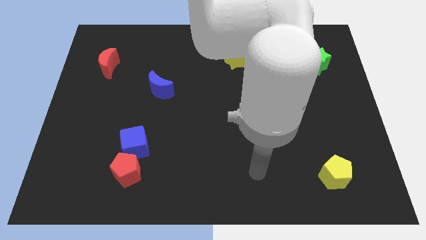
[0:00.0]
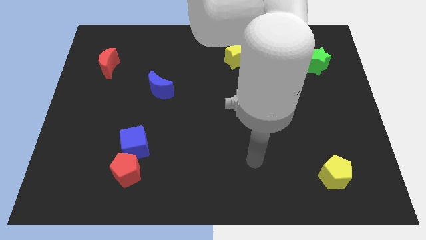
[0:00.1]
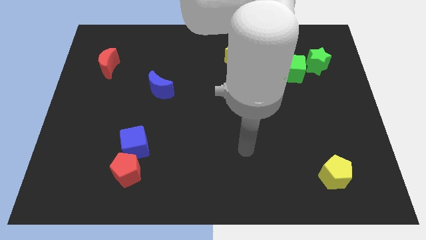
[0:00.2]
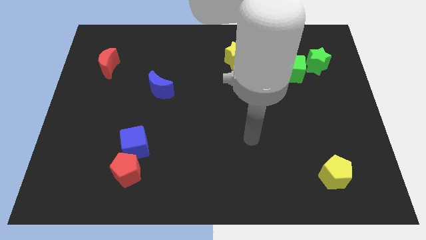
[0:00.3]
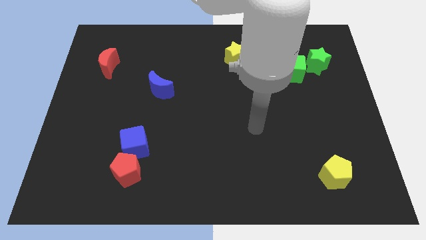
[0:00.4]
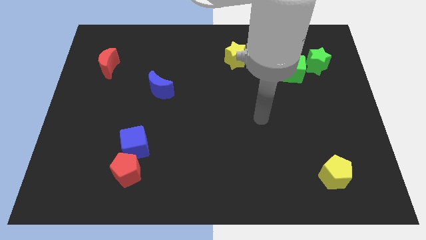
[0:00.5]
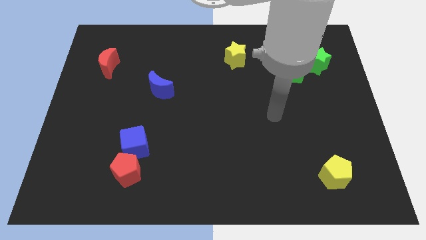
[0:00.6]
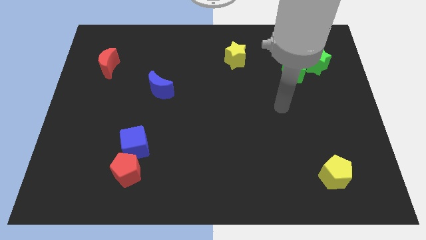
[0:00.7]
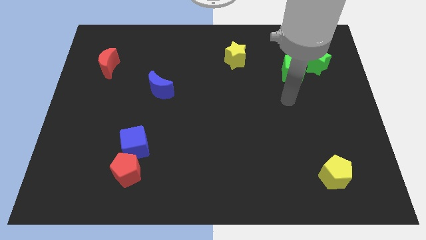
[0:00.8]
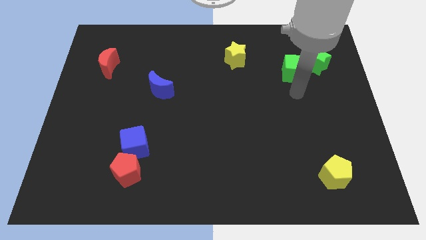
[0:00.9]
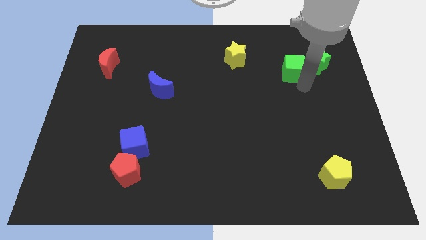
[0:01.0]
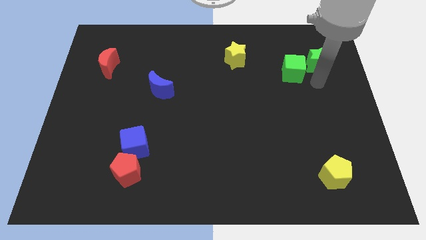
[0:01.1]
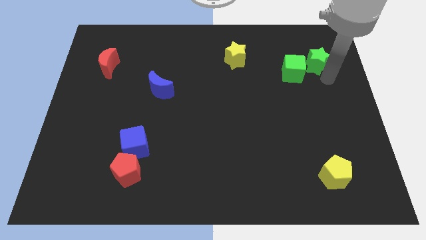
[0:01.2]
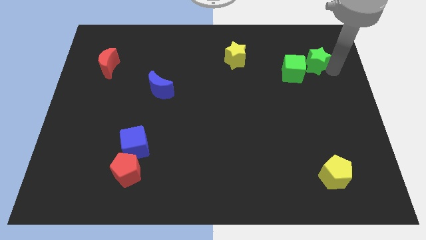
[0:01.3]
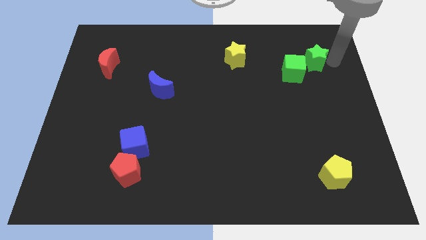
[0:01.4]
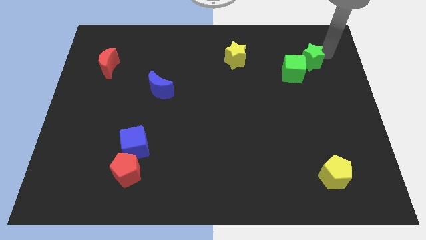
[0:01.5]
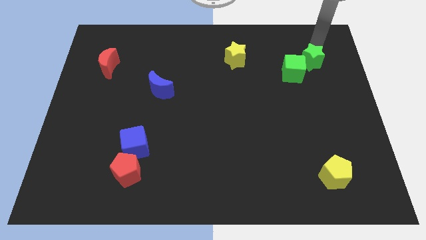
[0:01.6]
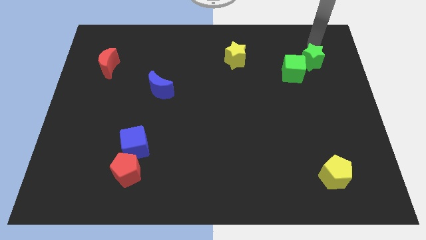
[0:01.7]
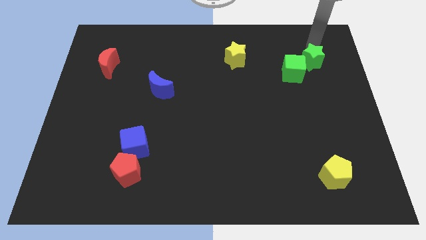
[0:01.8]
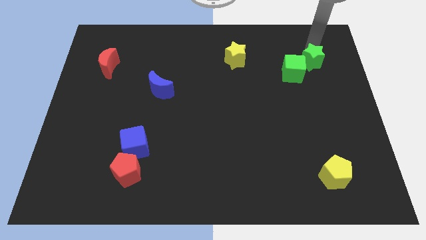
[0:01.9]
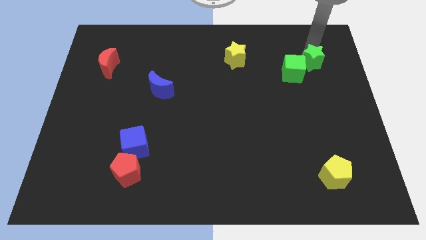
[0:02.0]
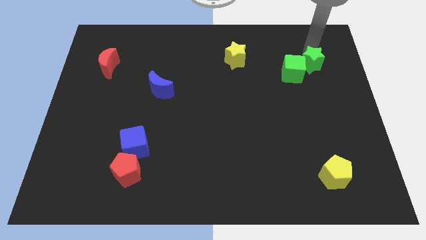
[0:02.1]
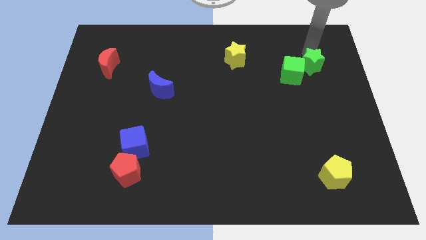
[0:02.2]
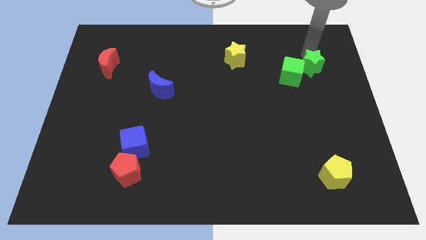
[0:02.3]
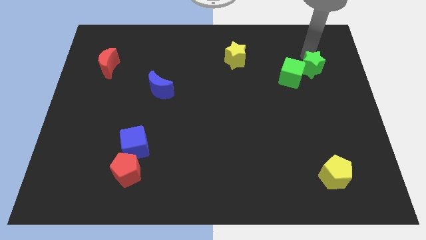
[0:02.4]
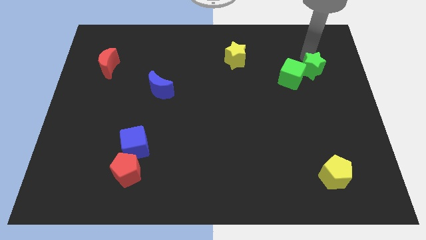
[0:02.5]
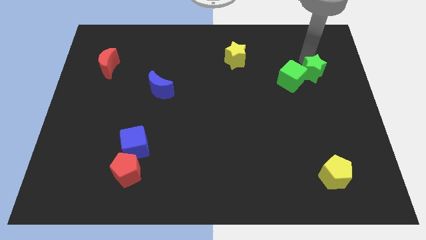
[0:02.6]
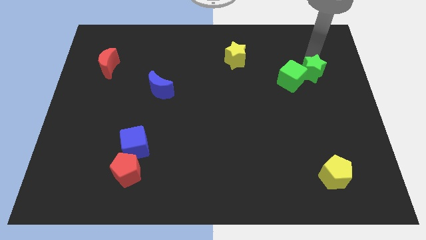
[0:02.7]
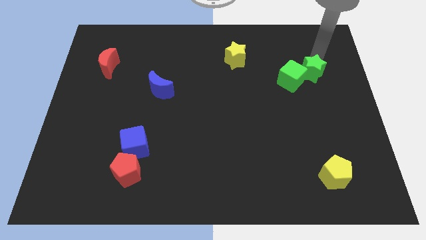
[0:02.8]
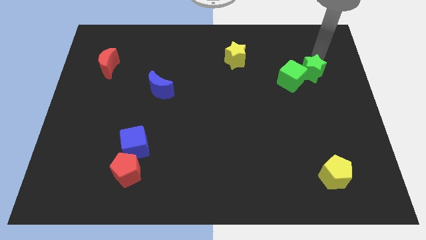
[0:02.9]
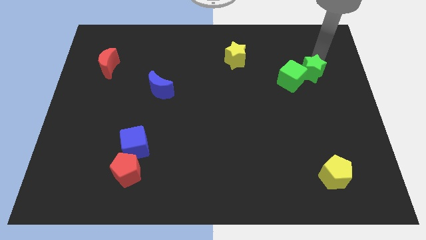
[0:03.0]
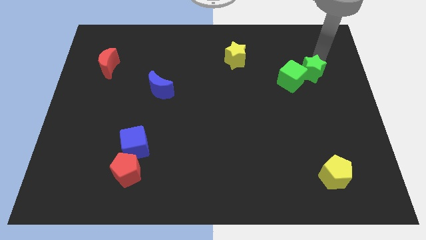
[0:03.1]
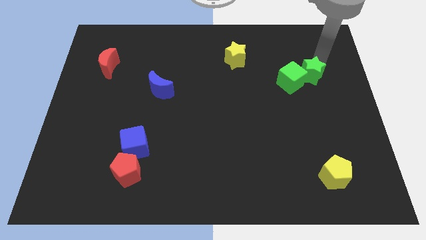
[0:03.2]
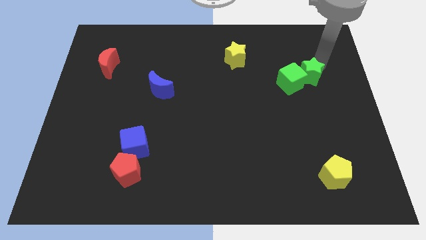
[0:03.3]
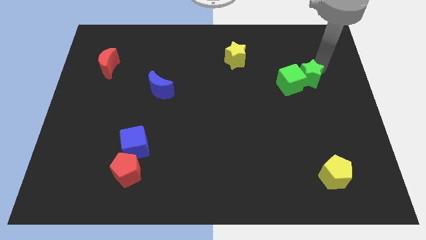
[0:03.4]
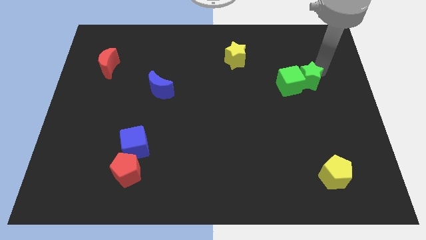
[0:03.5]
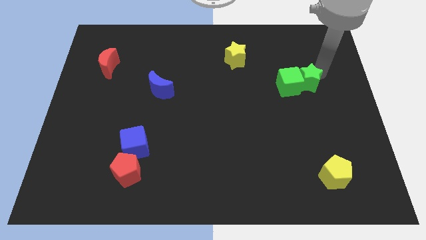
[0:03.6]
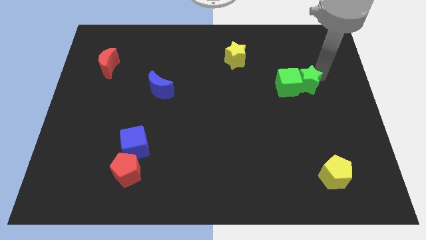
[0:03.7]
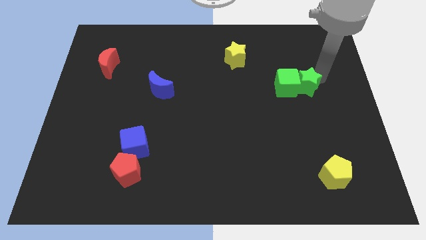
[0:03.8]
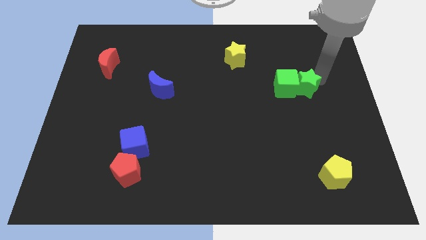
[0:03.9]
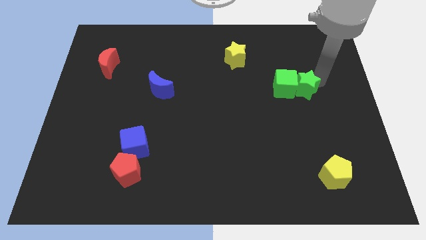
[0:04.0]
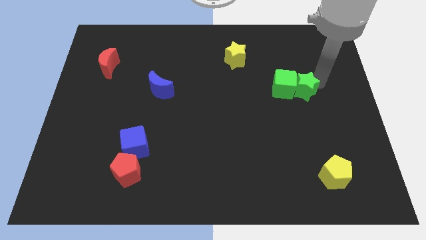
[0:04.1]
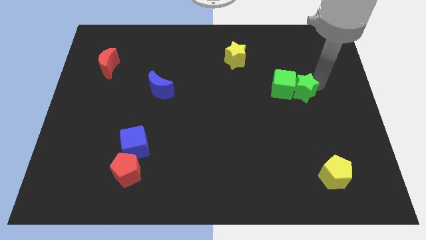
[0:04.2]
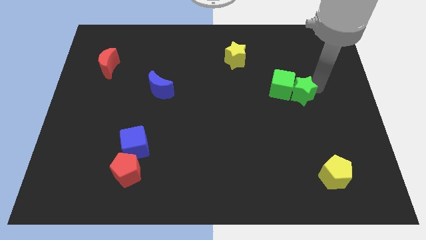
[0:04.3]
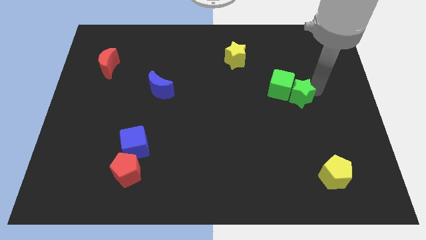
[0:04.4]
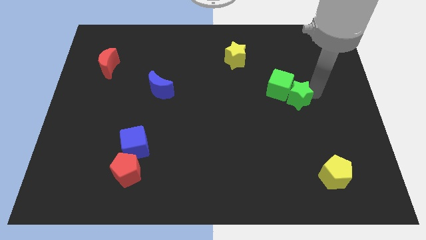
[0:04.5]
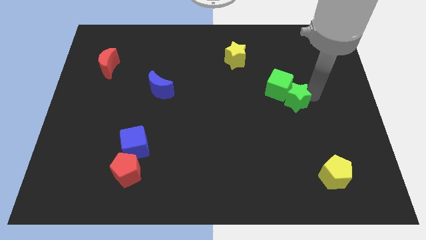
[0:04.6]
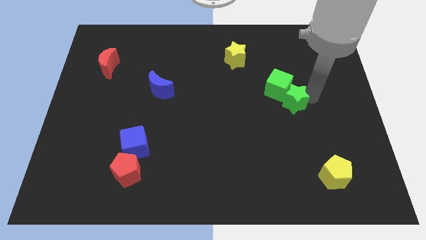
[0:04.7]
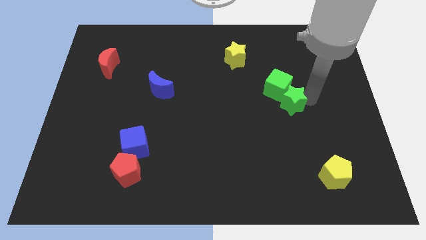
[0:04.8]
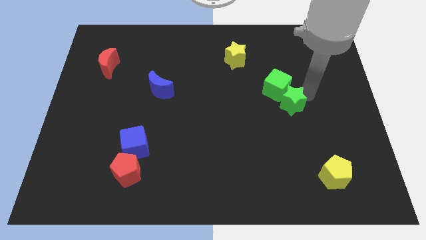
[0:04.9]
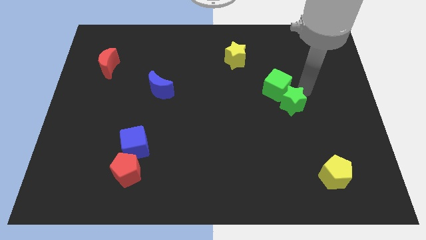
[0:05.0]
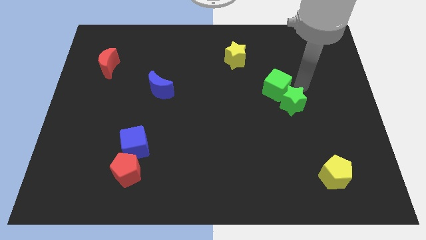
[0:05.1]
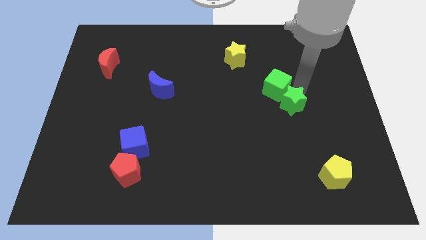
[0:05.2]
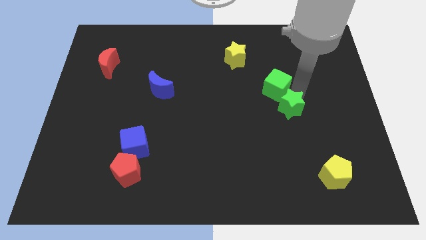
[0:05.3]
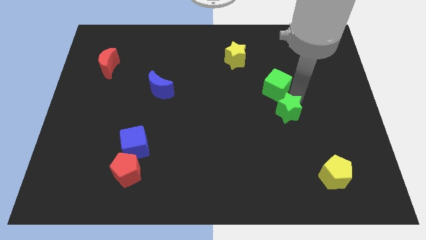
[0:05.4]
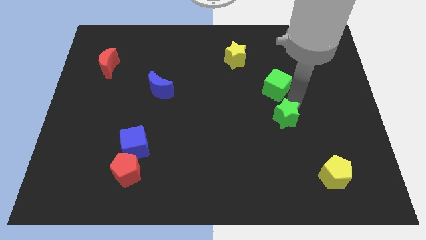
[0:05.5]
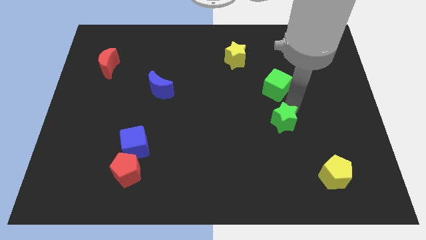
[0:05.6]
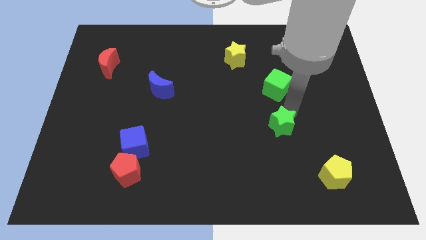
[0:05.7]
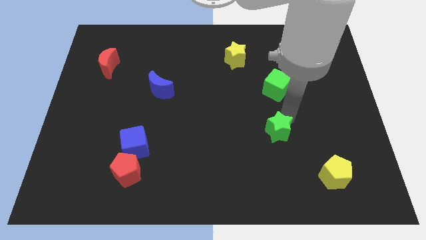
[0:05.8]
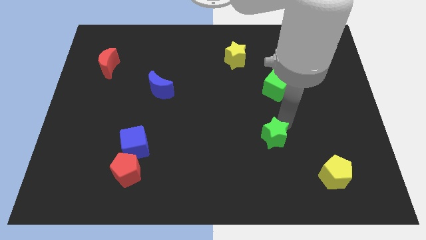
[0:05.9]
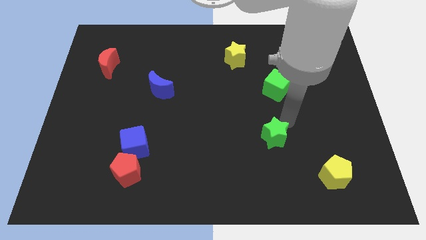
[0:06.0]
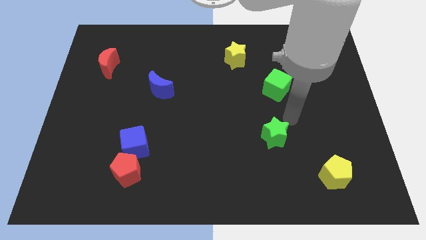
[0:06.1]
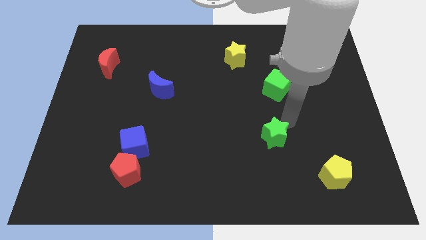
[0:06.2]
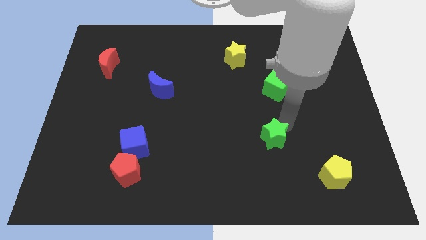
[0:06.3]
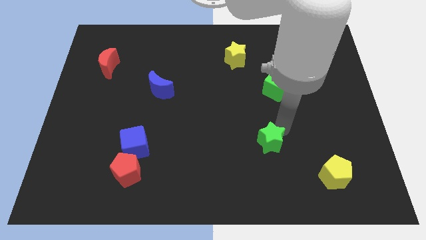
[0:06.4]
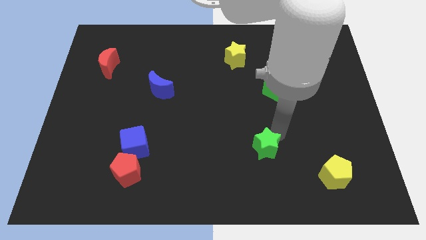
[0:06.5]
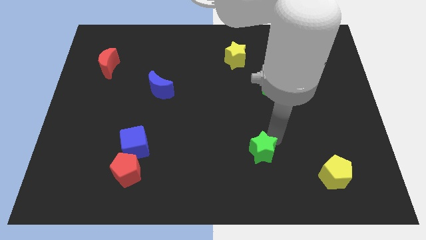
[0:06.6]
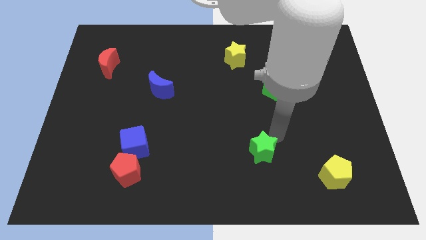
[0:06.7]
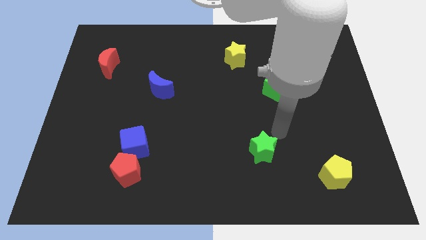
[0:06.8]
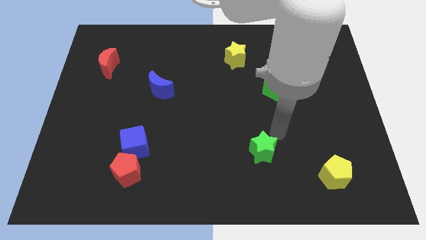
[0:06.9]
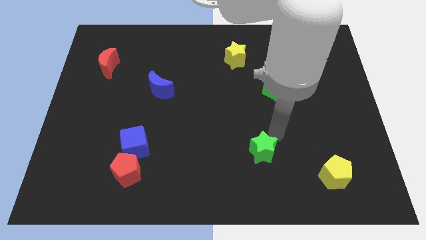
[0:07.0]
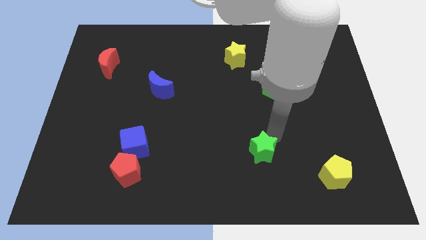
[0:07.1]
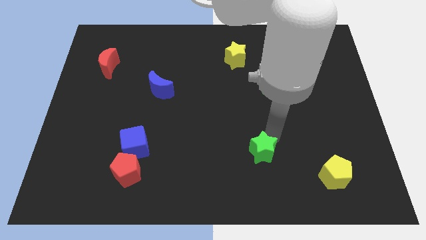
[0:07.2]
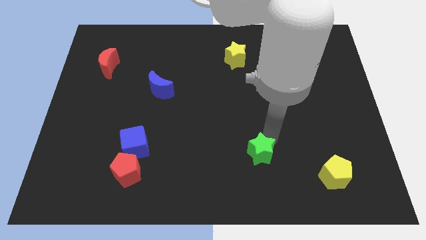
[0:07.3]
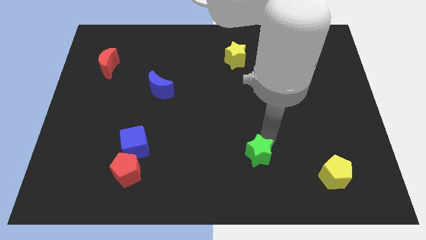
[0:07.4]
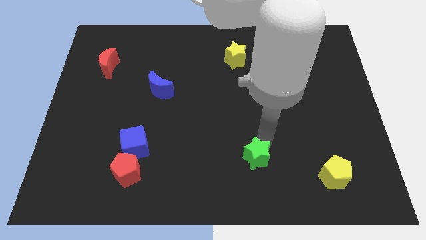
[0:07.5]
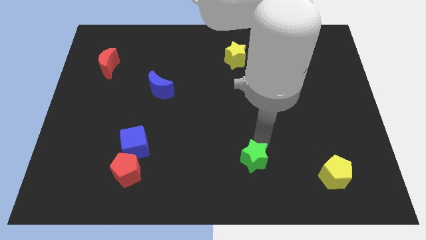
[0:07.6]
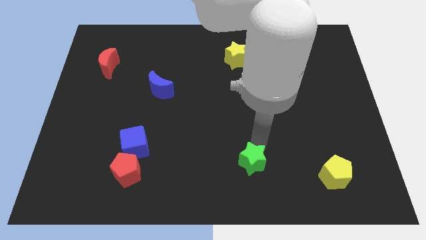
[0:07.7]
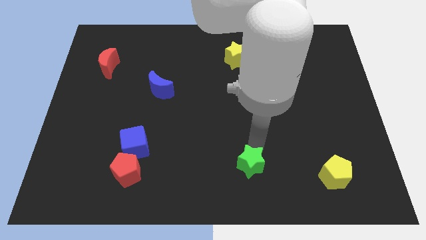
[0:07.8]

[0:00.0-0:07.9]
slide the green star to the bottom
